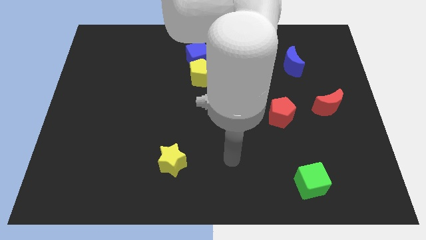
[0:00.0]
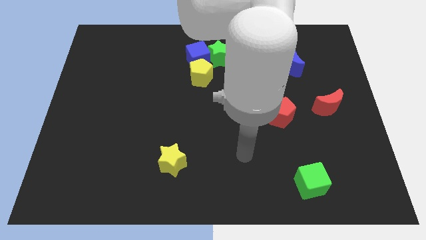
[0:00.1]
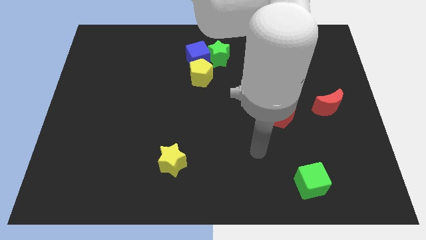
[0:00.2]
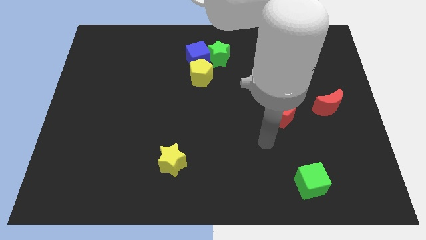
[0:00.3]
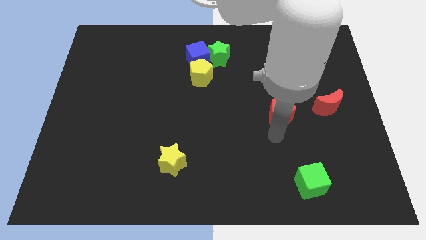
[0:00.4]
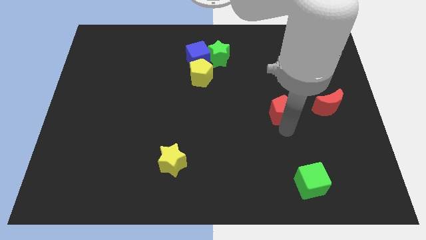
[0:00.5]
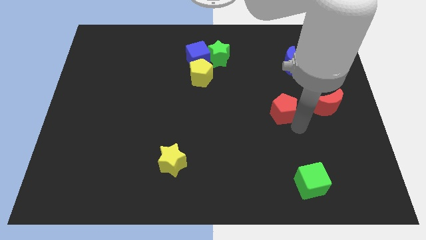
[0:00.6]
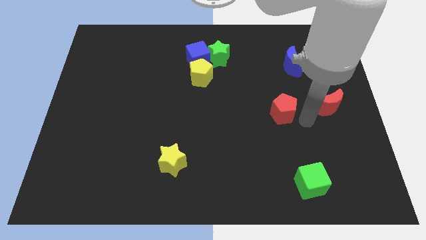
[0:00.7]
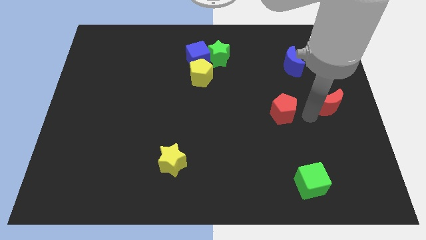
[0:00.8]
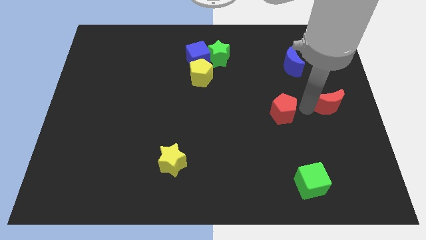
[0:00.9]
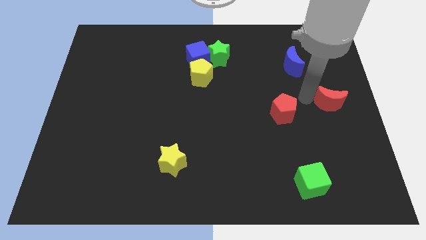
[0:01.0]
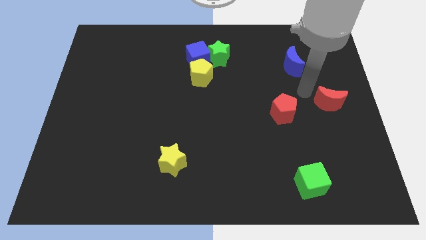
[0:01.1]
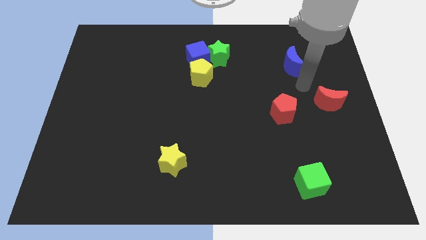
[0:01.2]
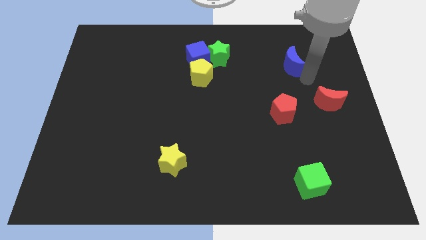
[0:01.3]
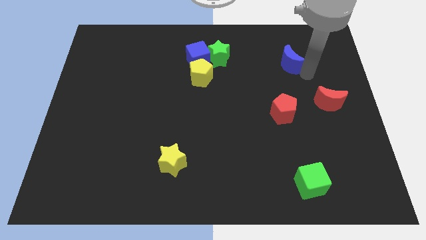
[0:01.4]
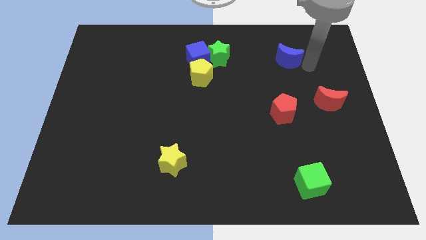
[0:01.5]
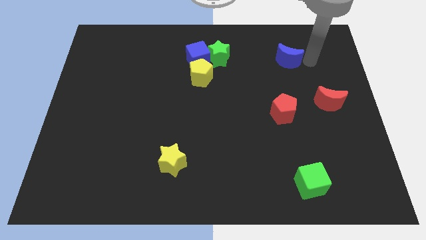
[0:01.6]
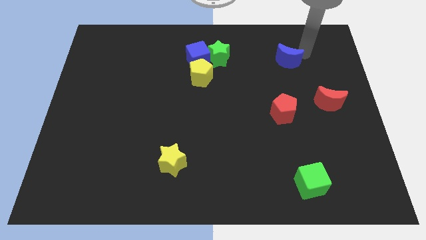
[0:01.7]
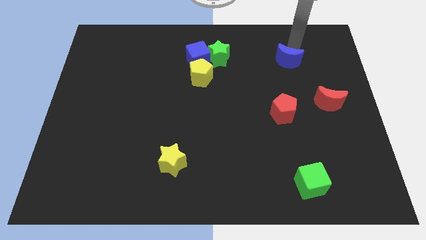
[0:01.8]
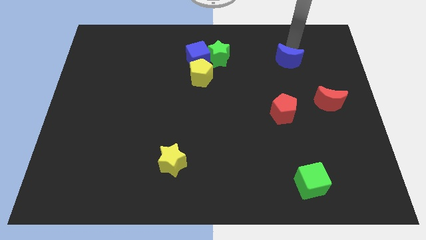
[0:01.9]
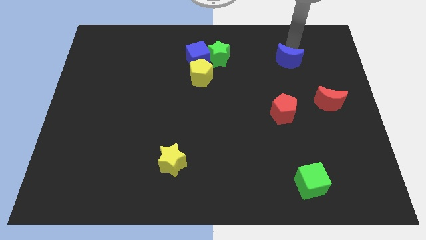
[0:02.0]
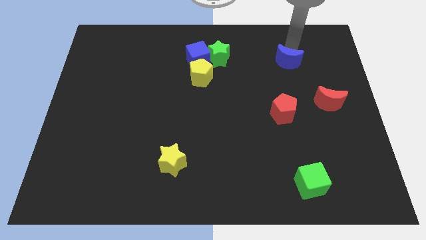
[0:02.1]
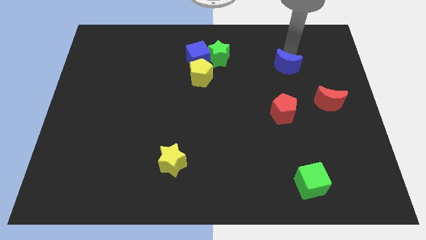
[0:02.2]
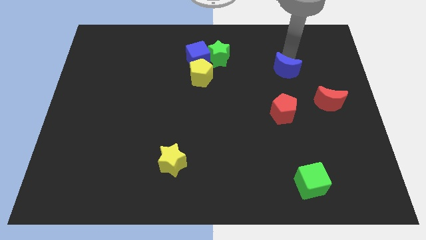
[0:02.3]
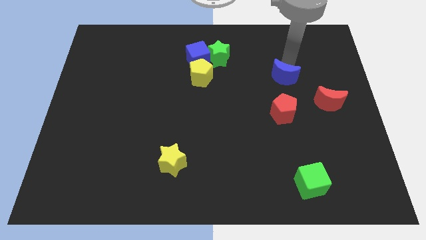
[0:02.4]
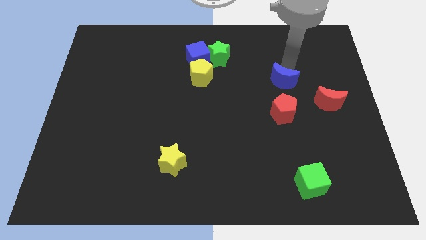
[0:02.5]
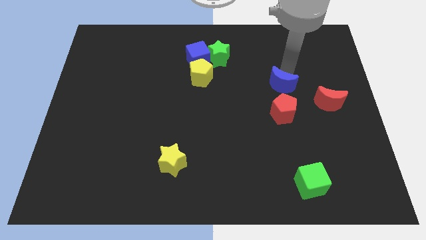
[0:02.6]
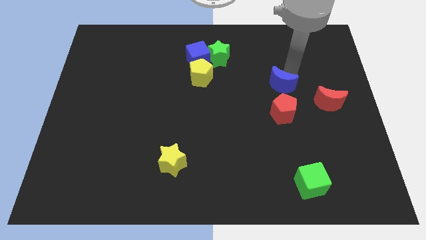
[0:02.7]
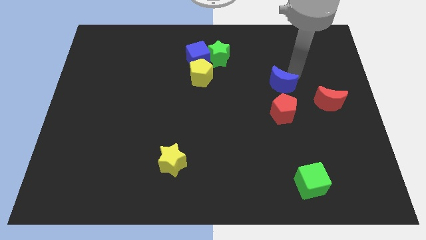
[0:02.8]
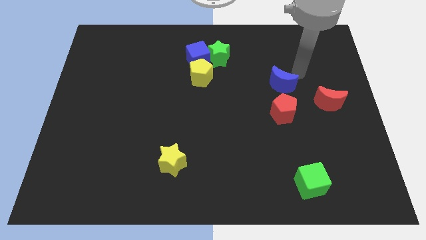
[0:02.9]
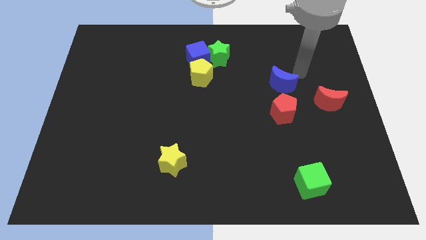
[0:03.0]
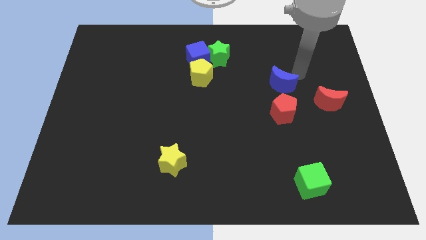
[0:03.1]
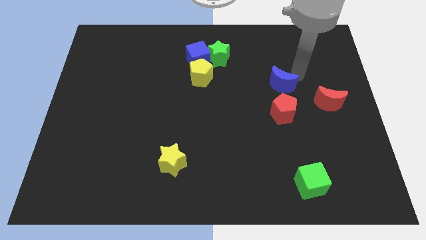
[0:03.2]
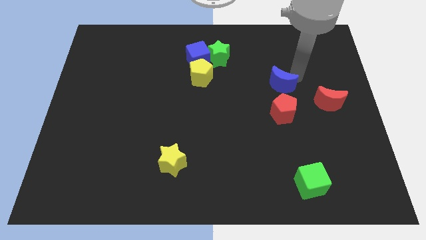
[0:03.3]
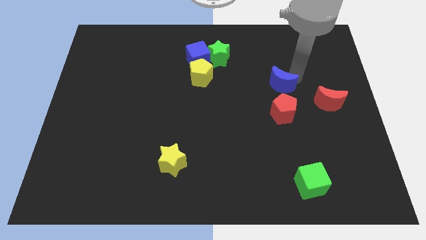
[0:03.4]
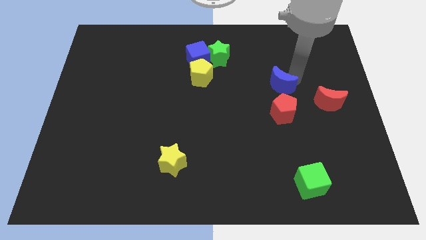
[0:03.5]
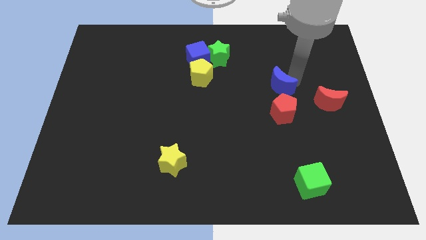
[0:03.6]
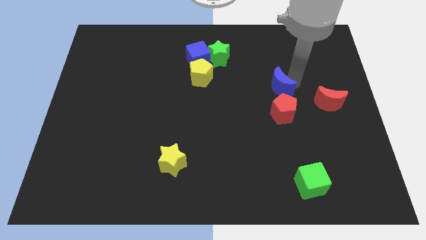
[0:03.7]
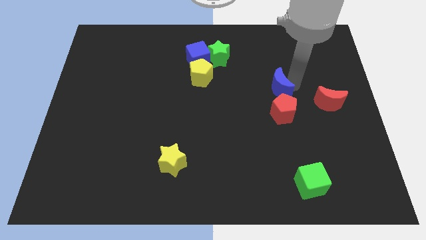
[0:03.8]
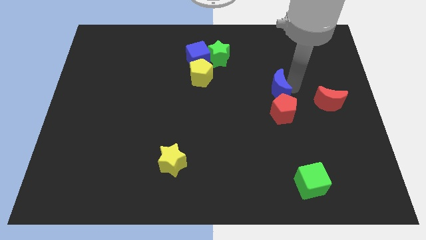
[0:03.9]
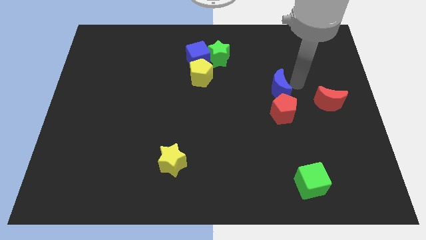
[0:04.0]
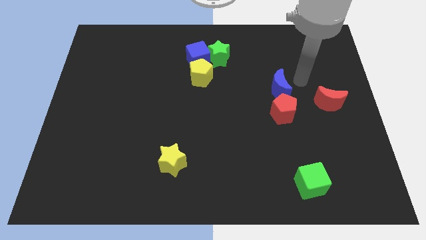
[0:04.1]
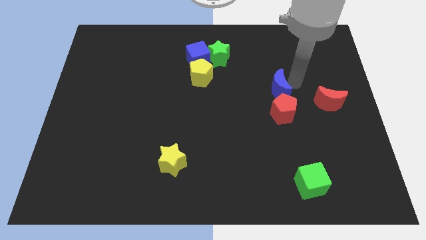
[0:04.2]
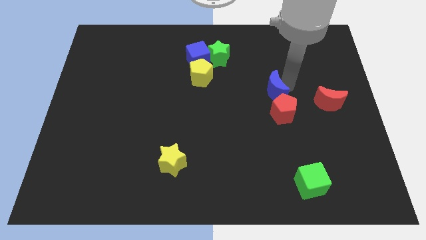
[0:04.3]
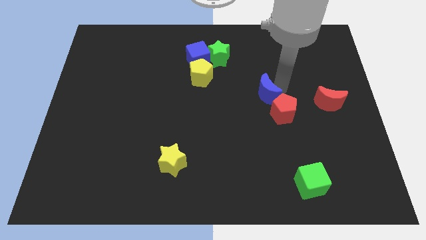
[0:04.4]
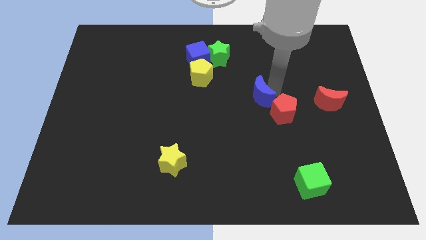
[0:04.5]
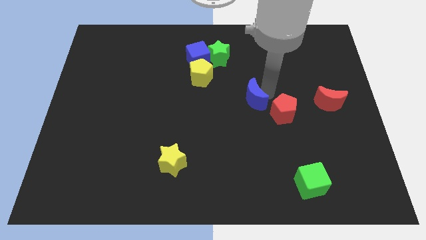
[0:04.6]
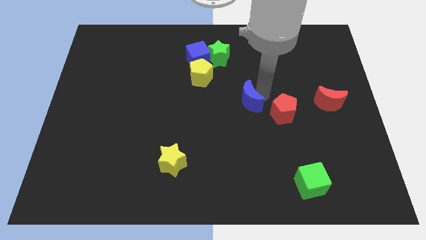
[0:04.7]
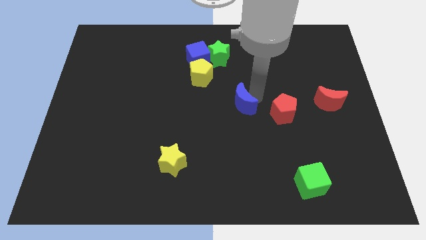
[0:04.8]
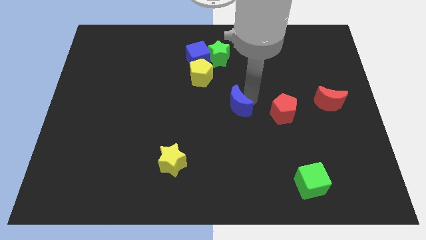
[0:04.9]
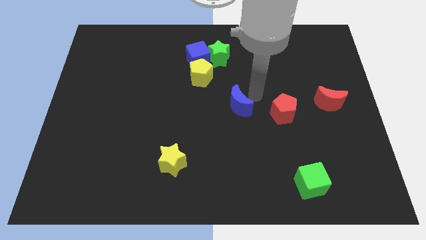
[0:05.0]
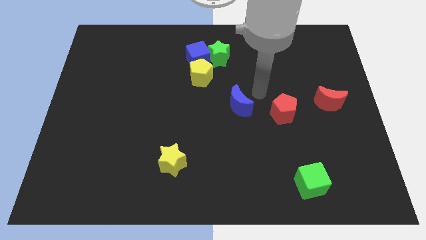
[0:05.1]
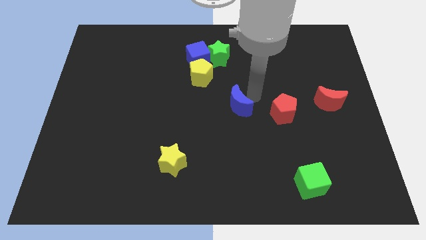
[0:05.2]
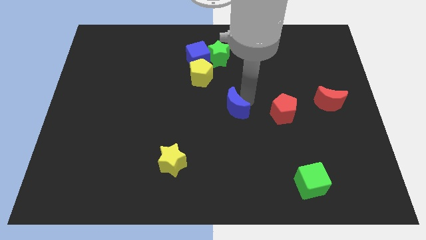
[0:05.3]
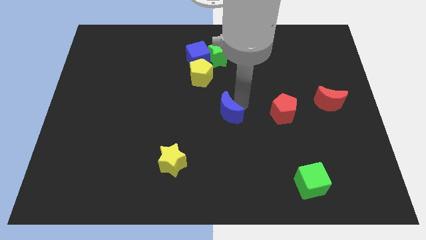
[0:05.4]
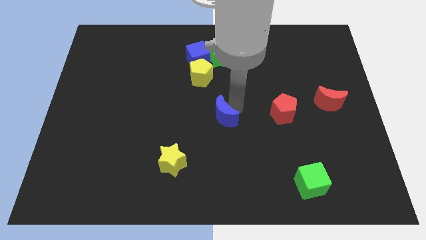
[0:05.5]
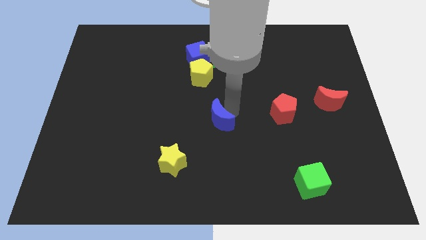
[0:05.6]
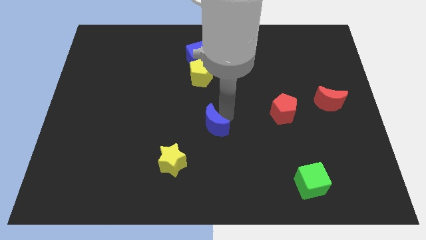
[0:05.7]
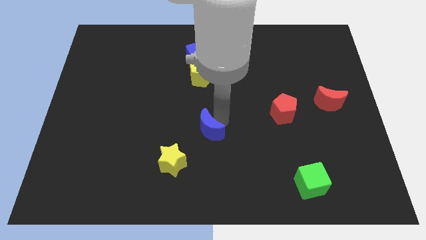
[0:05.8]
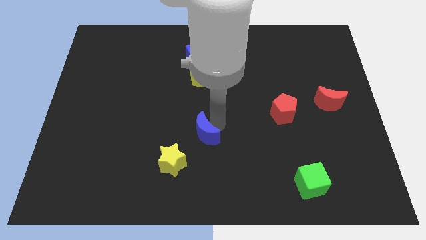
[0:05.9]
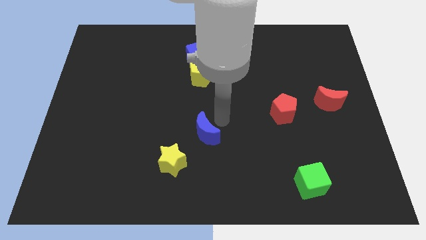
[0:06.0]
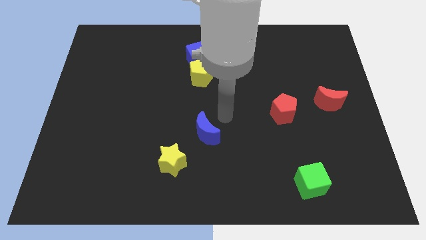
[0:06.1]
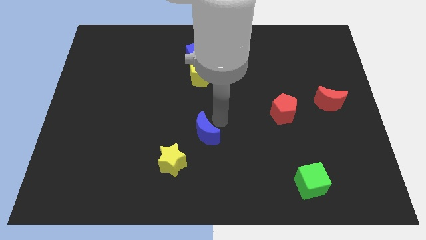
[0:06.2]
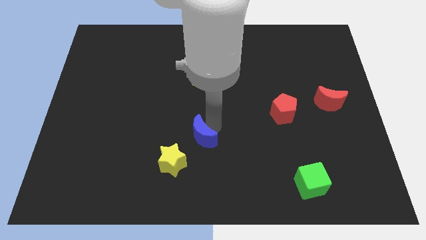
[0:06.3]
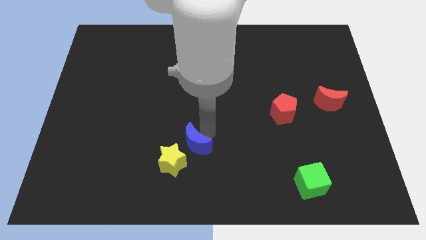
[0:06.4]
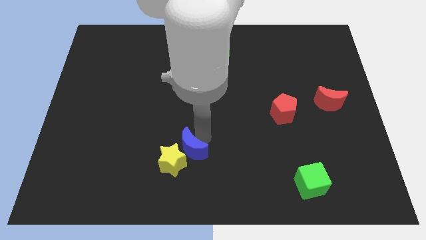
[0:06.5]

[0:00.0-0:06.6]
push the blue moon towards the yellow star
